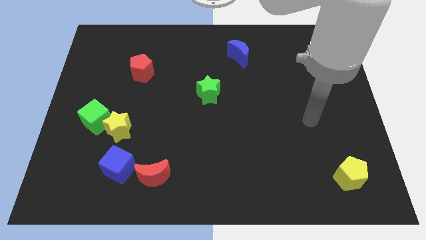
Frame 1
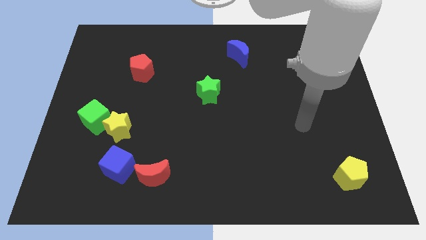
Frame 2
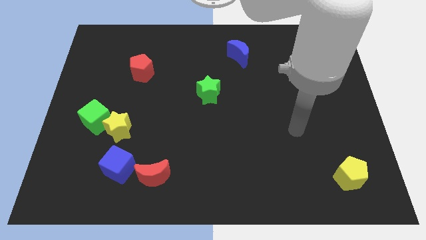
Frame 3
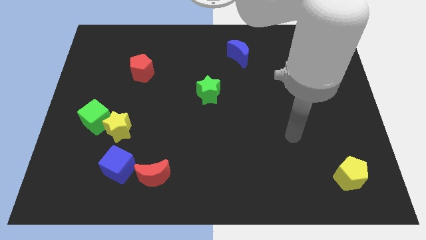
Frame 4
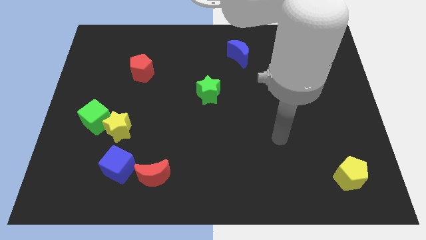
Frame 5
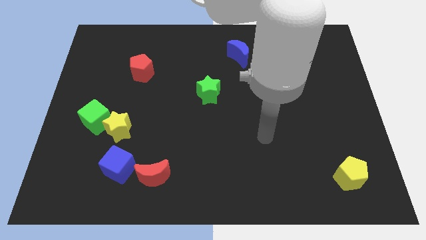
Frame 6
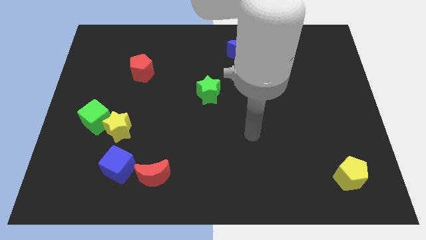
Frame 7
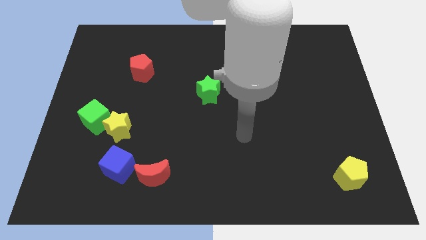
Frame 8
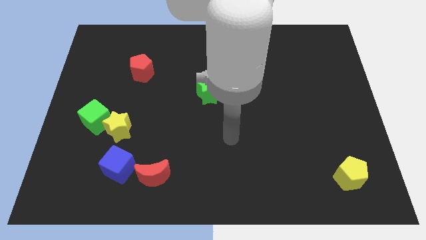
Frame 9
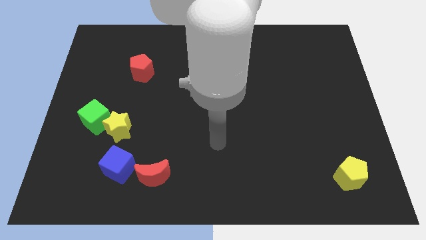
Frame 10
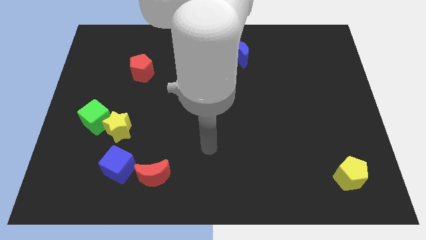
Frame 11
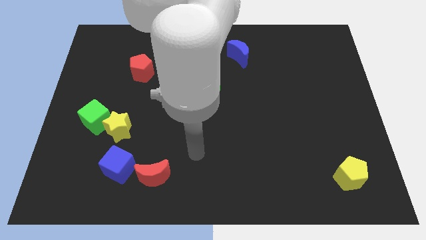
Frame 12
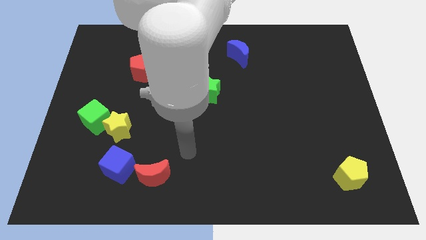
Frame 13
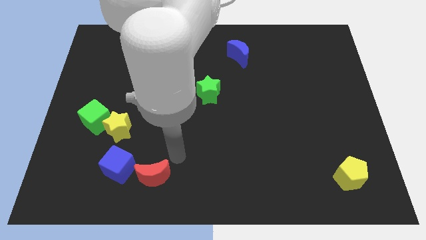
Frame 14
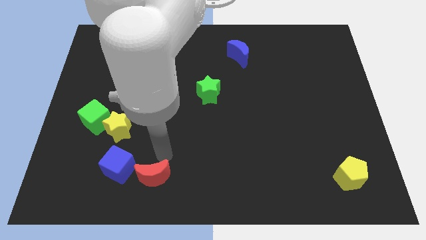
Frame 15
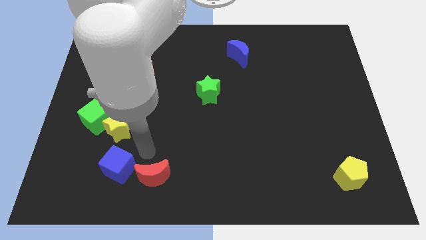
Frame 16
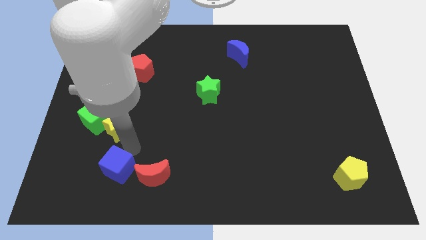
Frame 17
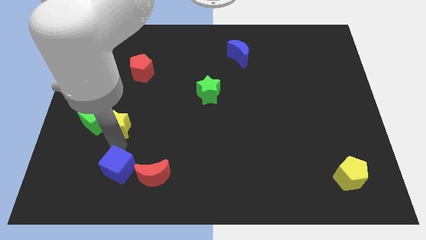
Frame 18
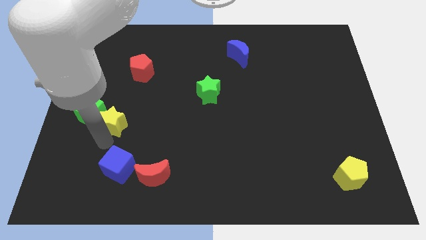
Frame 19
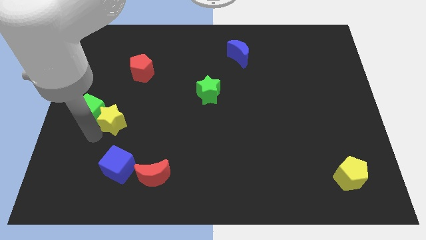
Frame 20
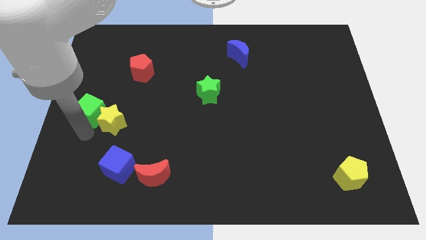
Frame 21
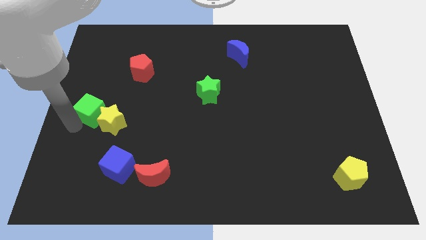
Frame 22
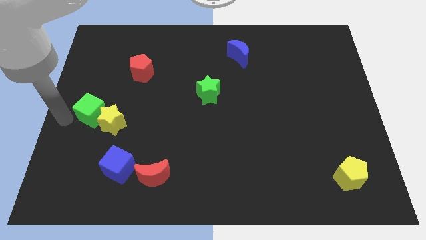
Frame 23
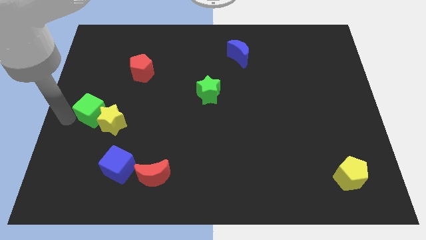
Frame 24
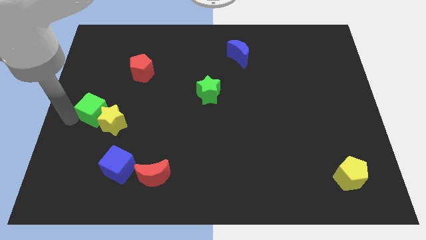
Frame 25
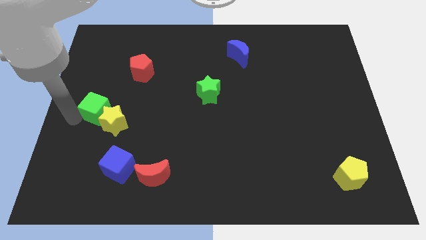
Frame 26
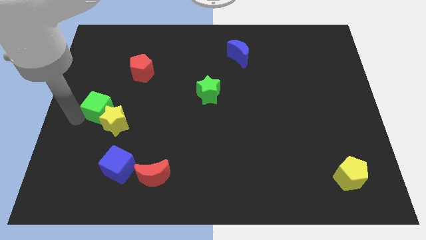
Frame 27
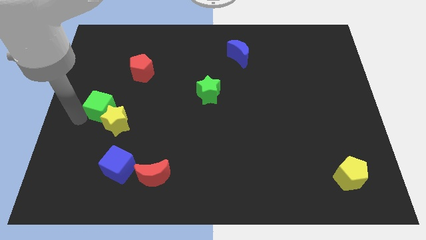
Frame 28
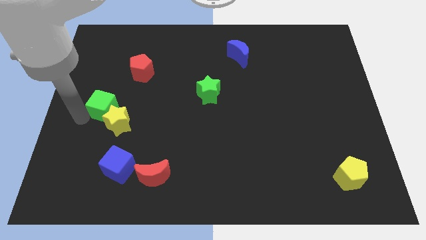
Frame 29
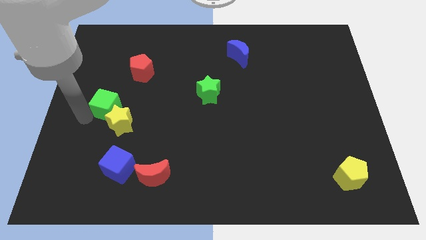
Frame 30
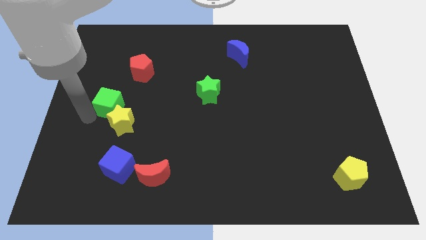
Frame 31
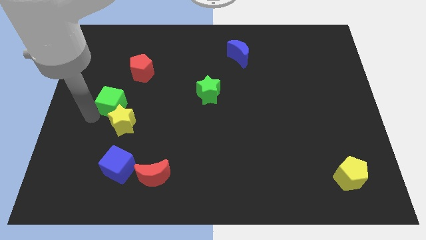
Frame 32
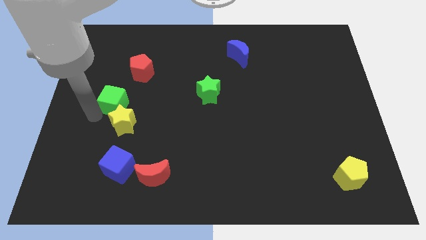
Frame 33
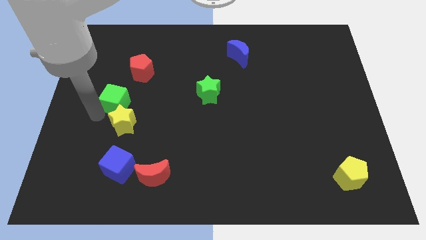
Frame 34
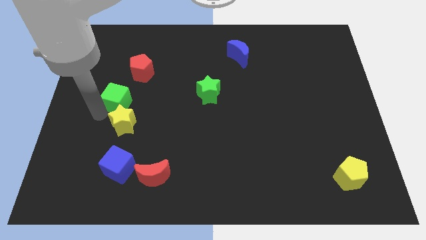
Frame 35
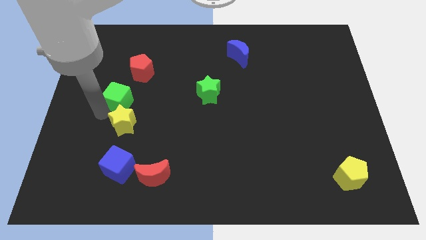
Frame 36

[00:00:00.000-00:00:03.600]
push the green cube slightly diagonally up and right

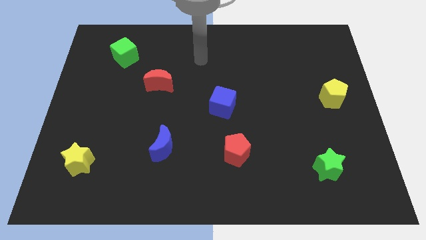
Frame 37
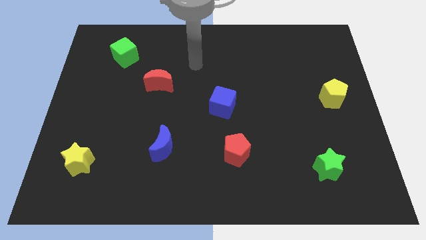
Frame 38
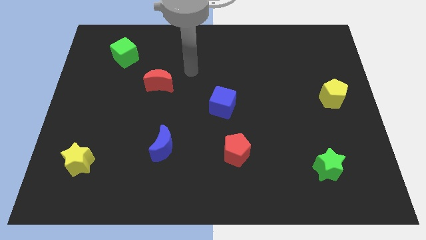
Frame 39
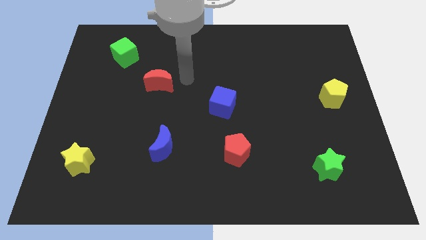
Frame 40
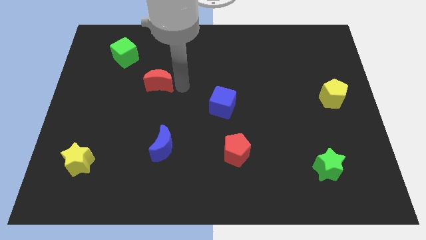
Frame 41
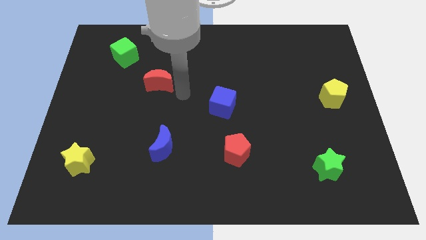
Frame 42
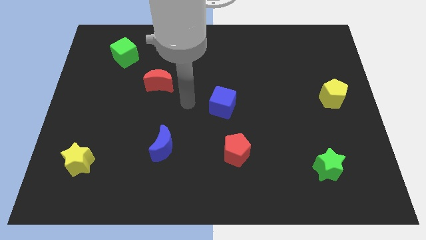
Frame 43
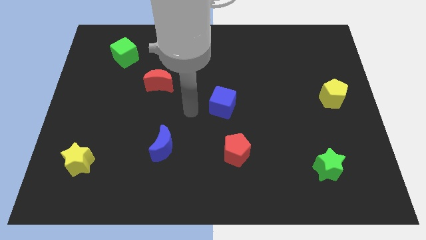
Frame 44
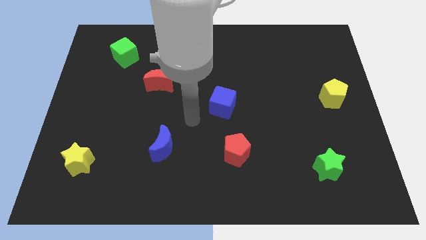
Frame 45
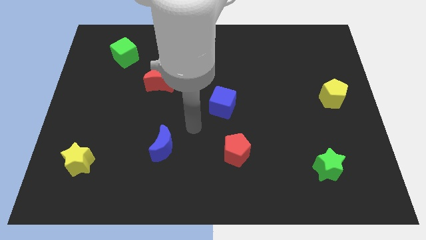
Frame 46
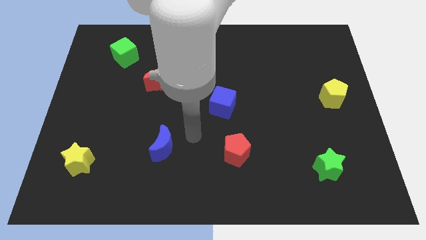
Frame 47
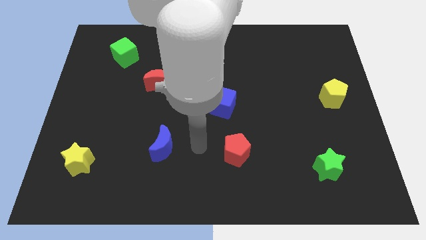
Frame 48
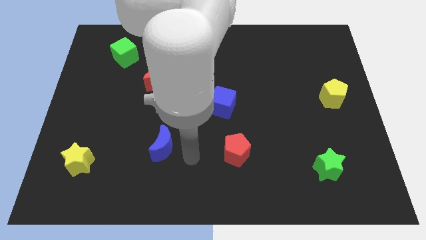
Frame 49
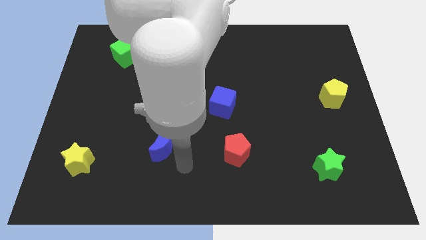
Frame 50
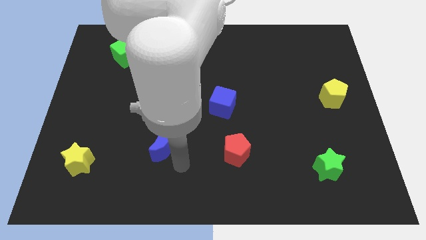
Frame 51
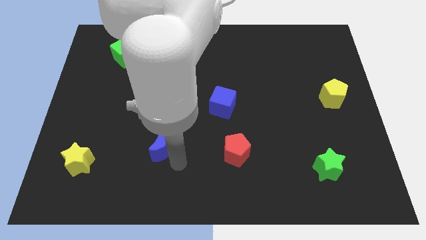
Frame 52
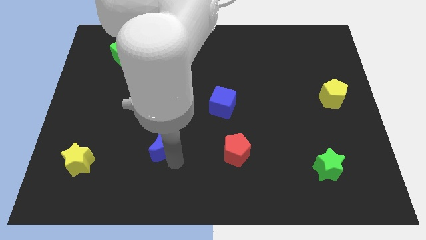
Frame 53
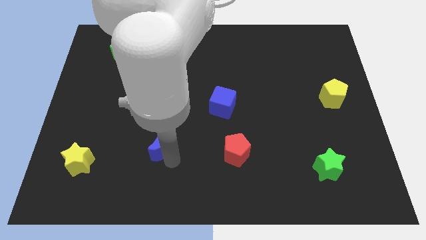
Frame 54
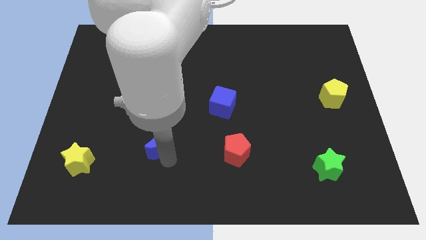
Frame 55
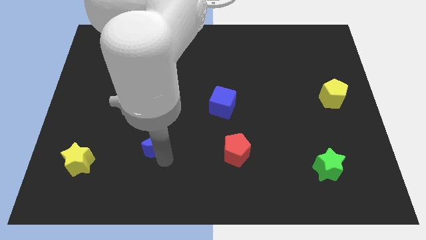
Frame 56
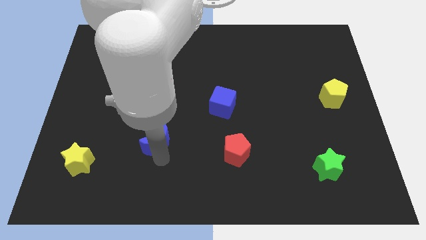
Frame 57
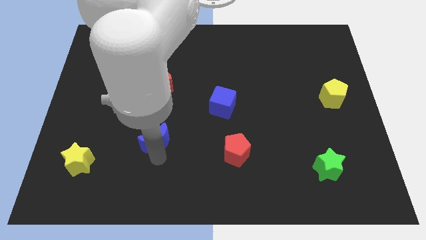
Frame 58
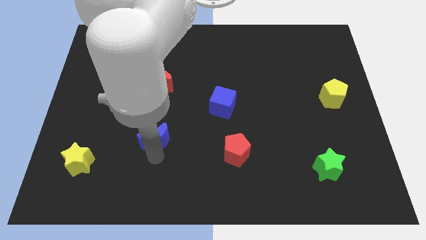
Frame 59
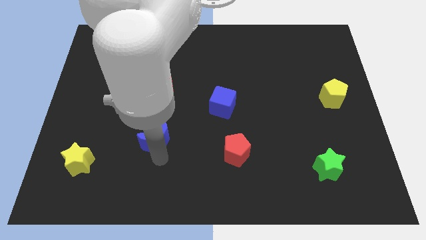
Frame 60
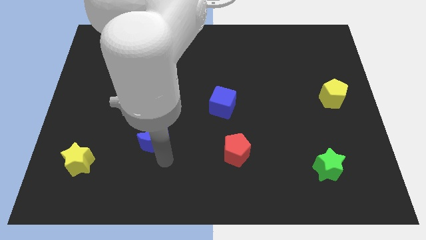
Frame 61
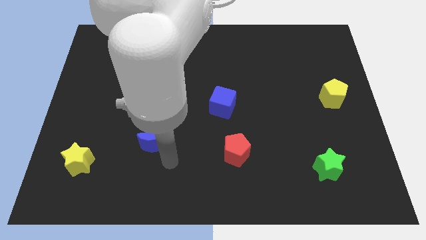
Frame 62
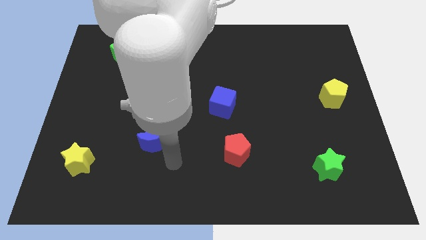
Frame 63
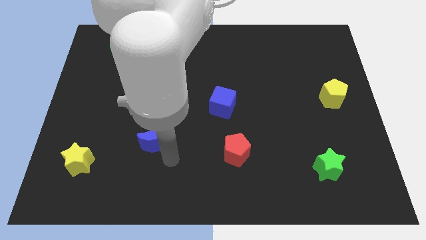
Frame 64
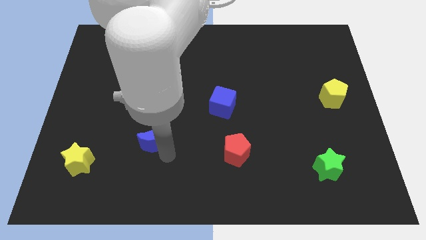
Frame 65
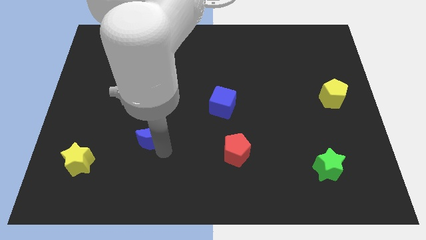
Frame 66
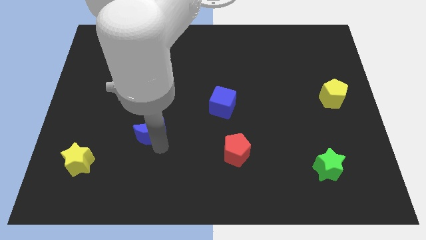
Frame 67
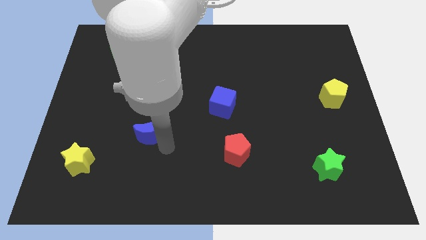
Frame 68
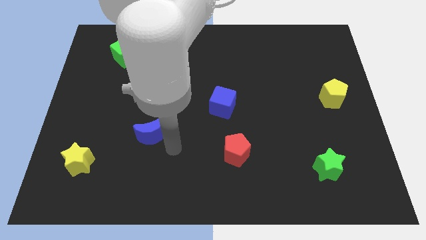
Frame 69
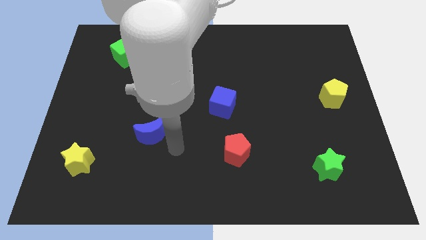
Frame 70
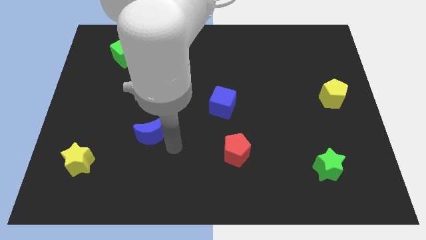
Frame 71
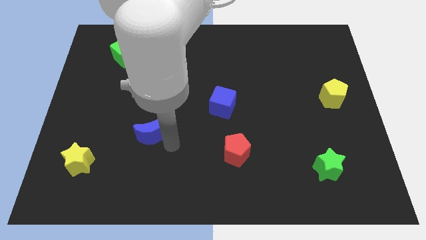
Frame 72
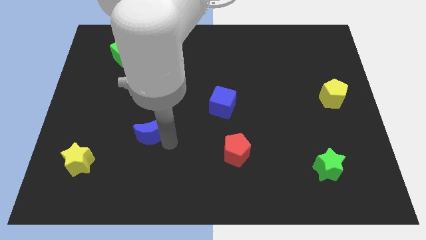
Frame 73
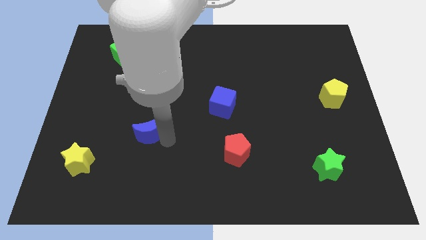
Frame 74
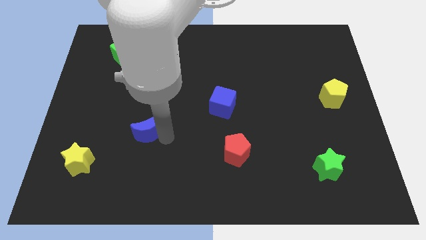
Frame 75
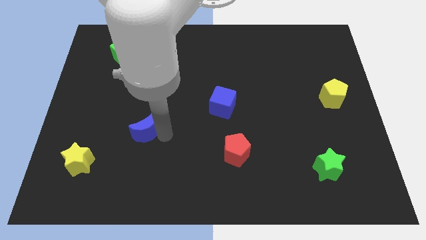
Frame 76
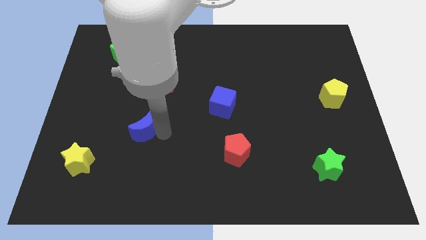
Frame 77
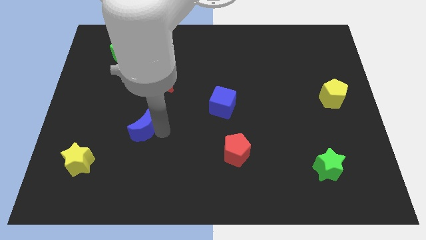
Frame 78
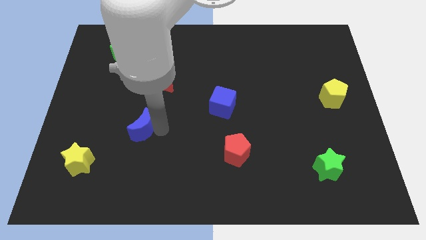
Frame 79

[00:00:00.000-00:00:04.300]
slightly slide the blue moon up and left
